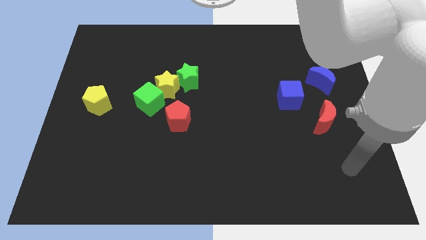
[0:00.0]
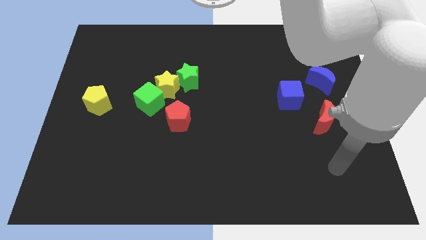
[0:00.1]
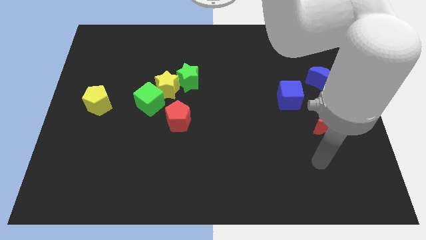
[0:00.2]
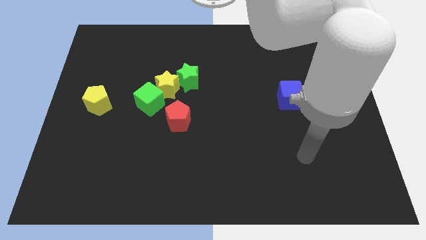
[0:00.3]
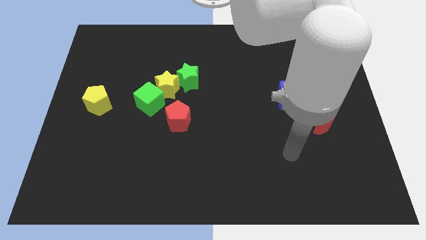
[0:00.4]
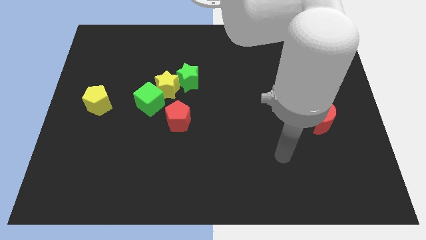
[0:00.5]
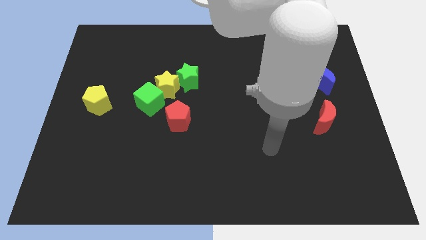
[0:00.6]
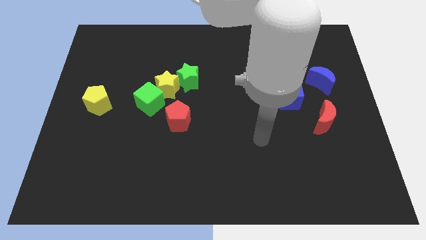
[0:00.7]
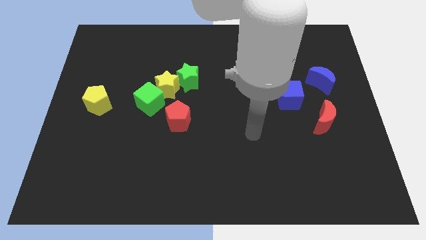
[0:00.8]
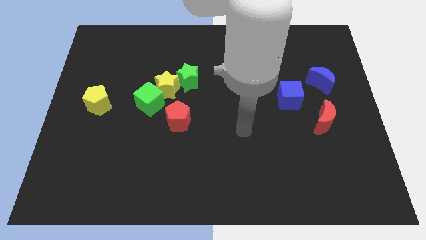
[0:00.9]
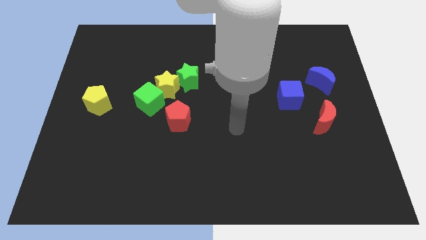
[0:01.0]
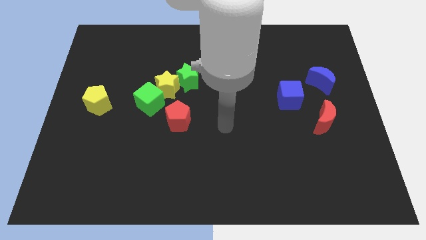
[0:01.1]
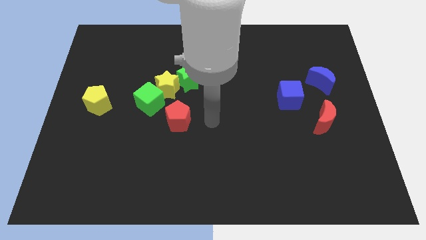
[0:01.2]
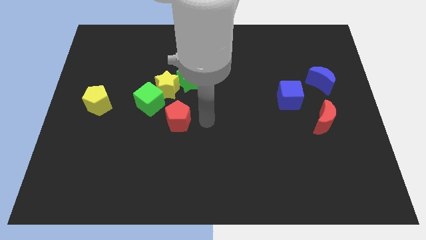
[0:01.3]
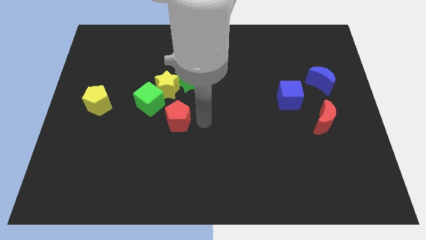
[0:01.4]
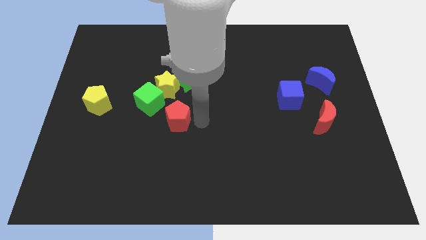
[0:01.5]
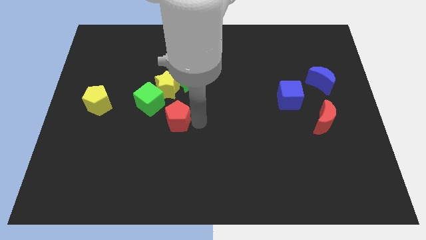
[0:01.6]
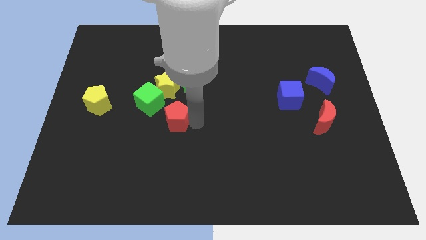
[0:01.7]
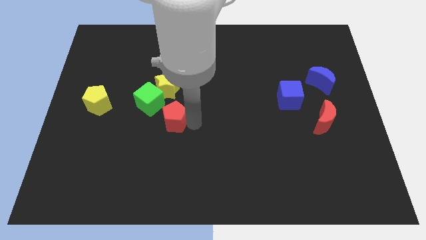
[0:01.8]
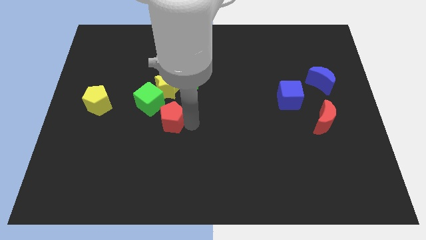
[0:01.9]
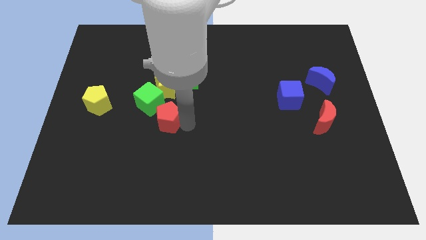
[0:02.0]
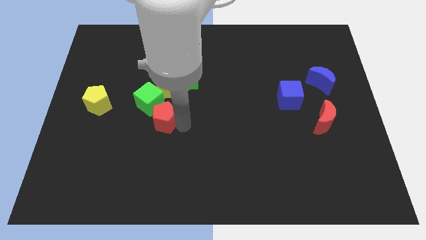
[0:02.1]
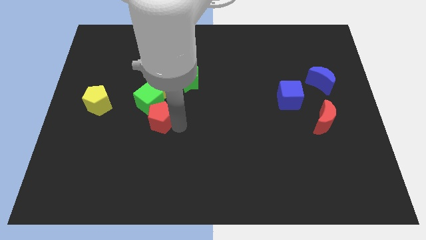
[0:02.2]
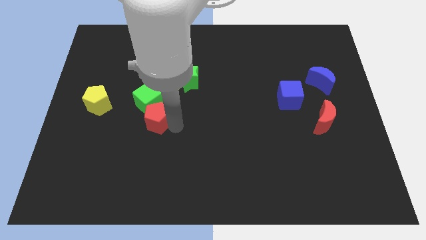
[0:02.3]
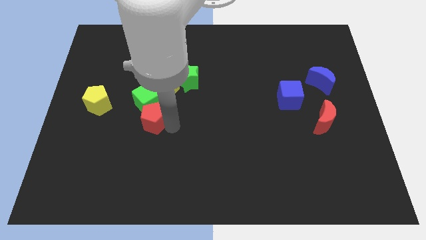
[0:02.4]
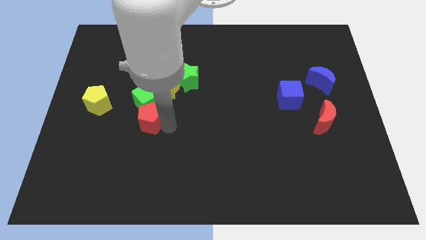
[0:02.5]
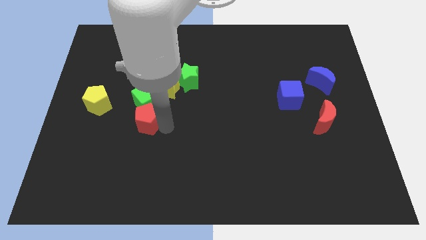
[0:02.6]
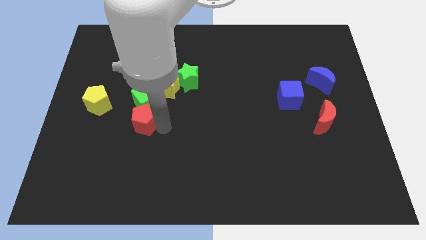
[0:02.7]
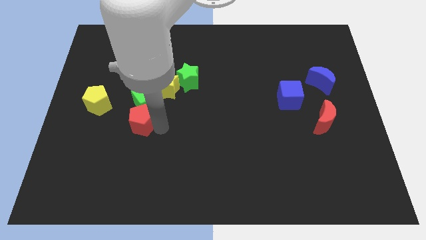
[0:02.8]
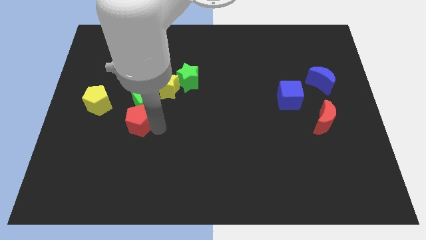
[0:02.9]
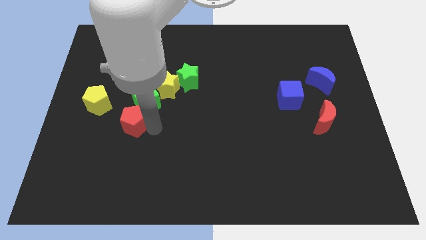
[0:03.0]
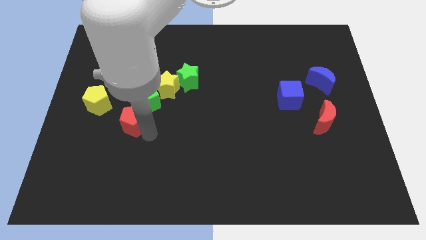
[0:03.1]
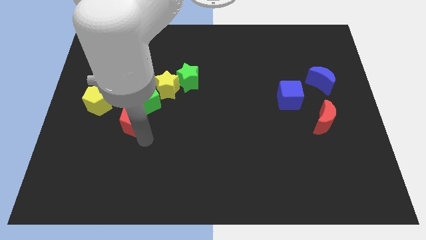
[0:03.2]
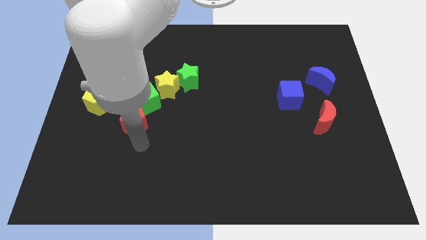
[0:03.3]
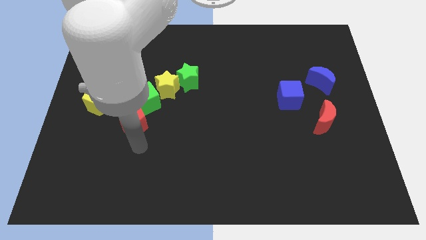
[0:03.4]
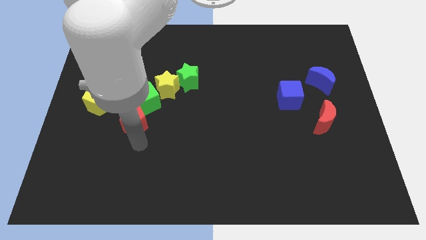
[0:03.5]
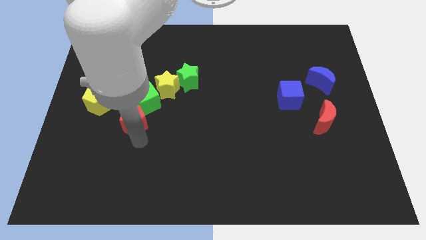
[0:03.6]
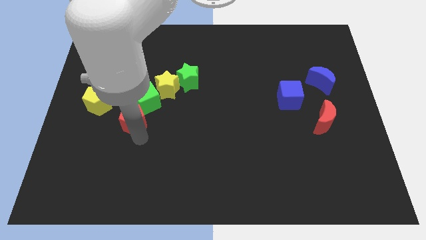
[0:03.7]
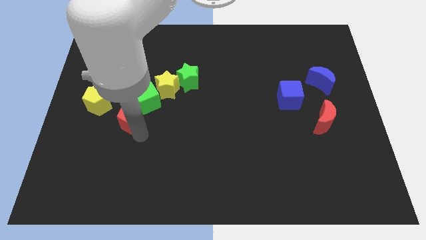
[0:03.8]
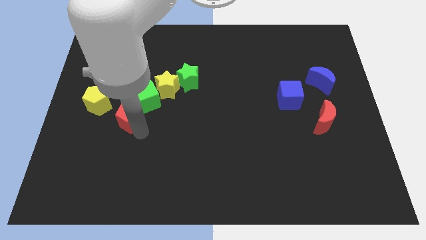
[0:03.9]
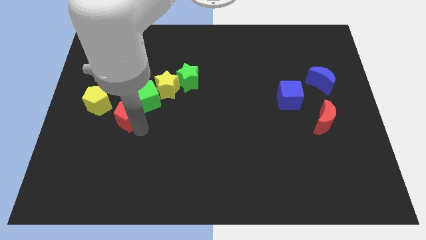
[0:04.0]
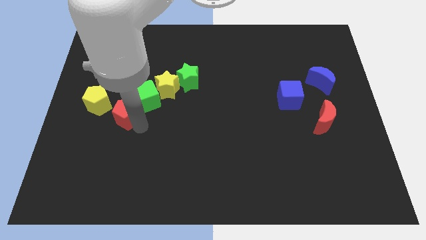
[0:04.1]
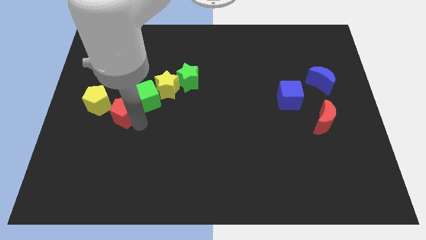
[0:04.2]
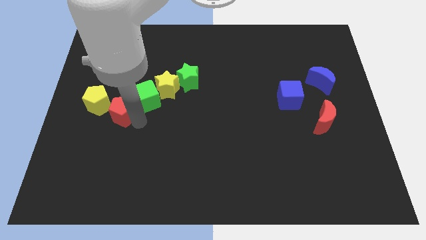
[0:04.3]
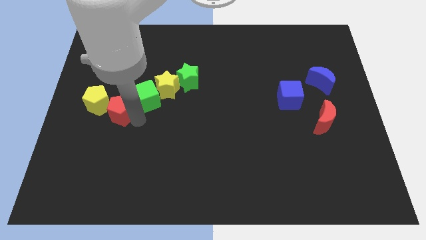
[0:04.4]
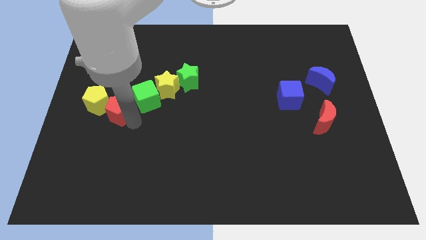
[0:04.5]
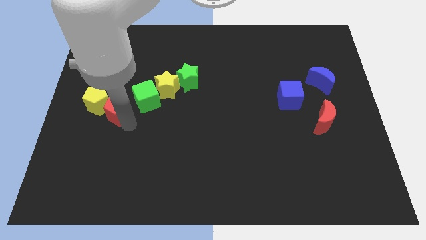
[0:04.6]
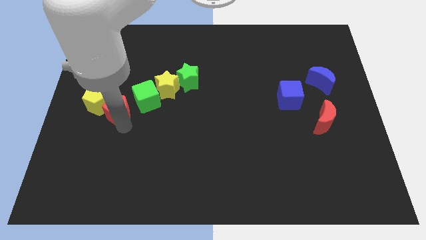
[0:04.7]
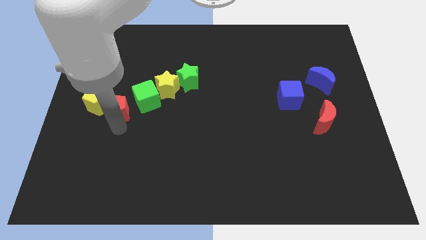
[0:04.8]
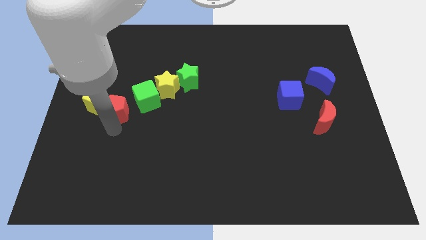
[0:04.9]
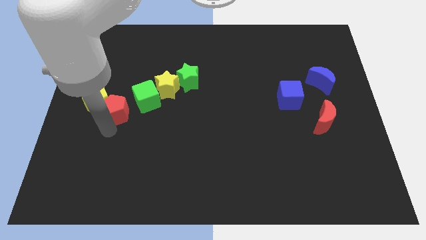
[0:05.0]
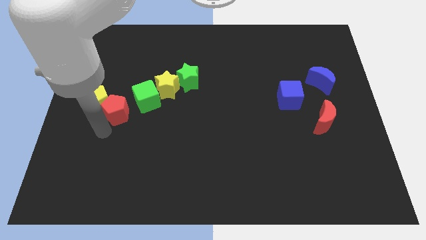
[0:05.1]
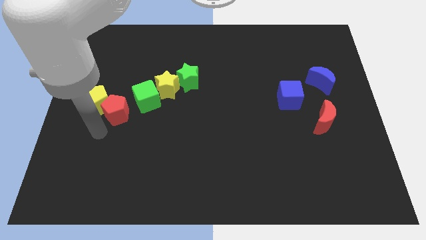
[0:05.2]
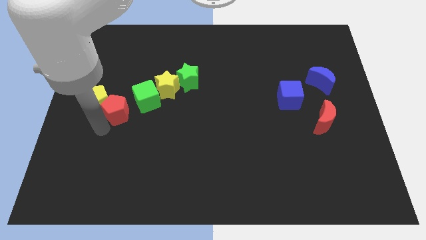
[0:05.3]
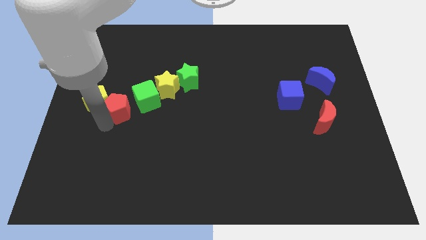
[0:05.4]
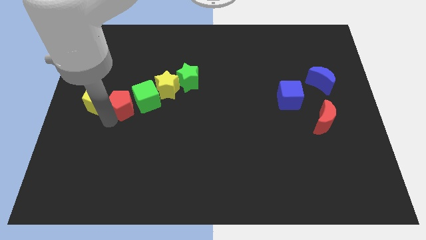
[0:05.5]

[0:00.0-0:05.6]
put the red pentagon to the top right side of the yellow pentagon
